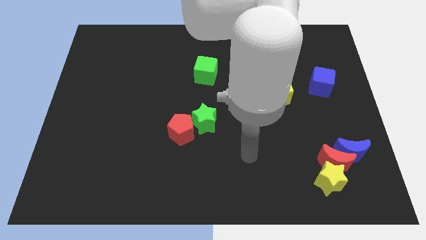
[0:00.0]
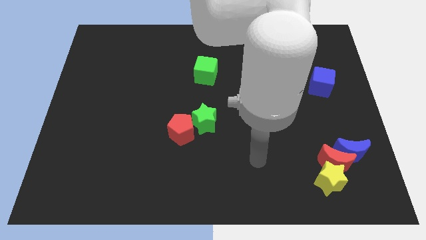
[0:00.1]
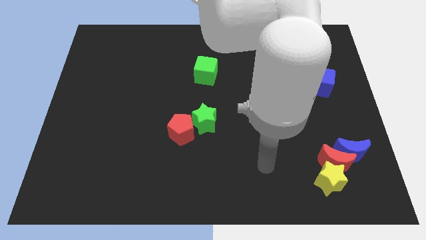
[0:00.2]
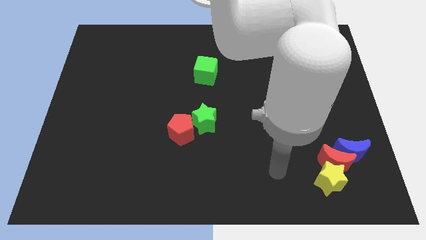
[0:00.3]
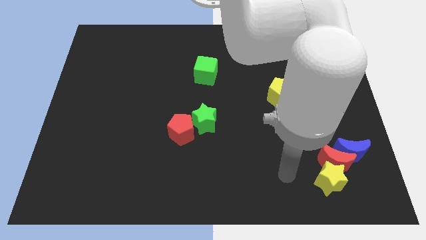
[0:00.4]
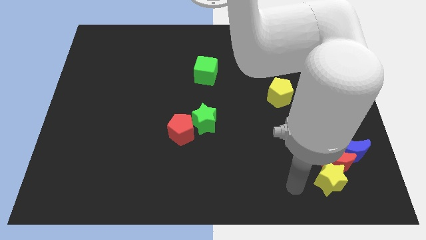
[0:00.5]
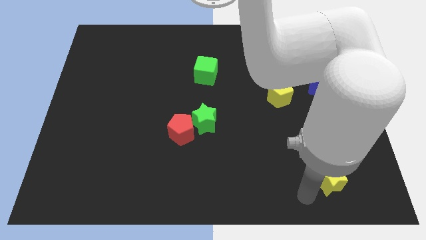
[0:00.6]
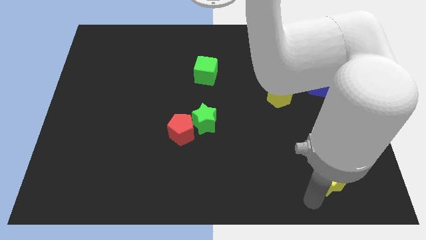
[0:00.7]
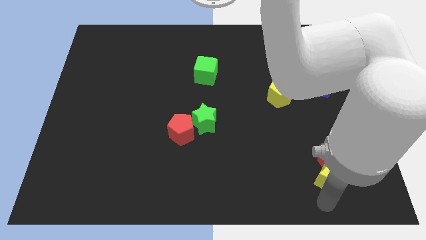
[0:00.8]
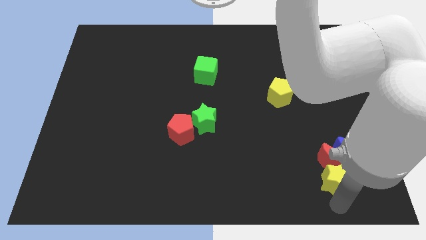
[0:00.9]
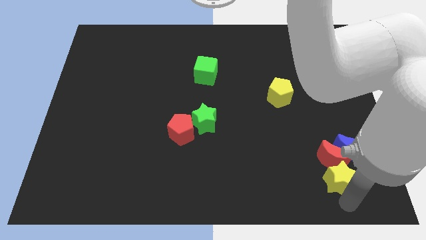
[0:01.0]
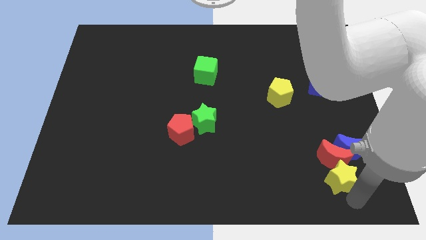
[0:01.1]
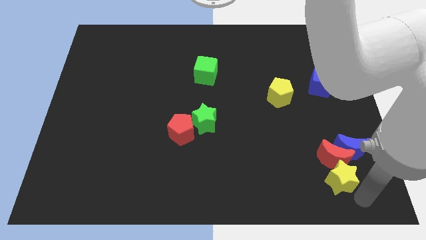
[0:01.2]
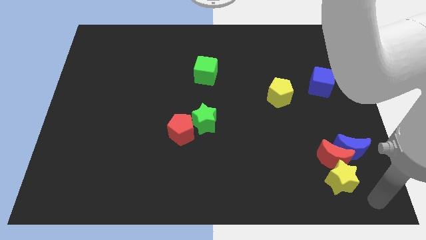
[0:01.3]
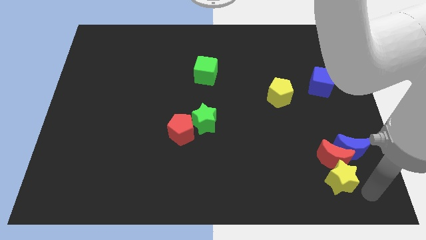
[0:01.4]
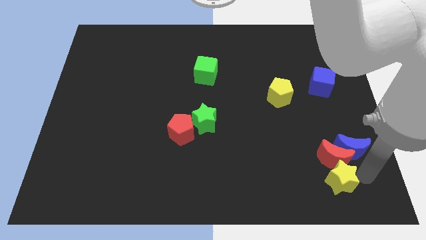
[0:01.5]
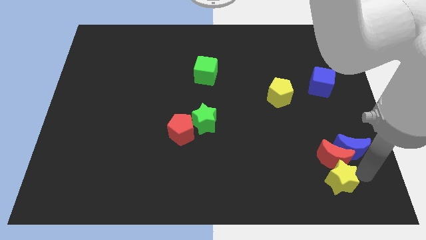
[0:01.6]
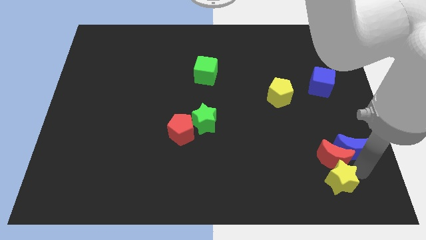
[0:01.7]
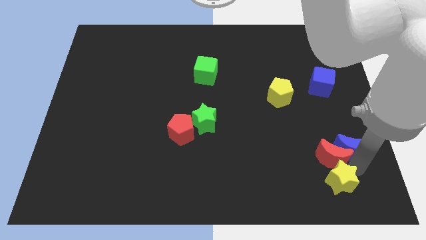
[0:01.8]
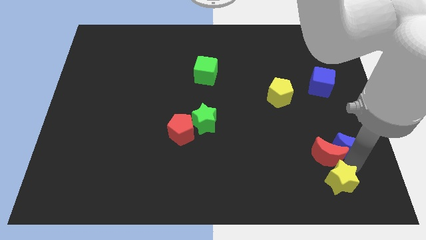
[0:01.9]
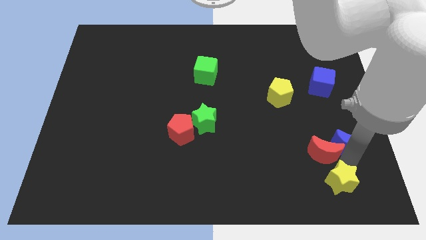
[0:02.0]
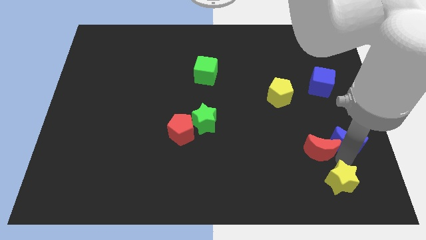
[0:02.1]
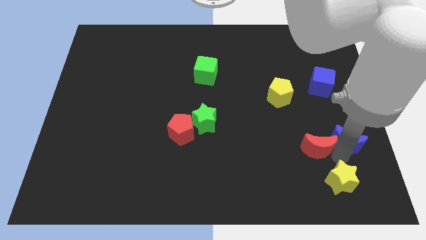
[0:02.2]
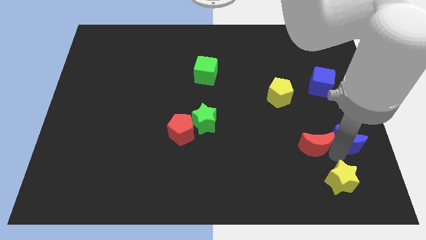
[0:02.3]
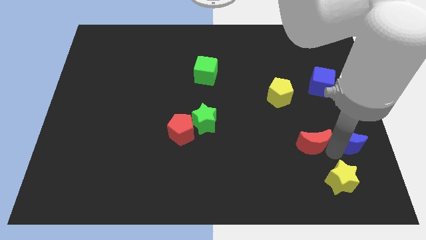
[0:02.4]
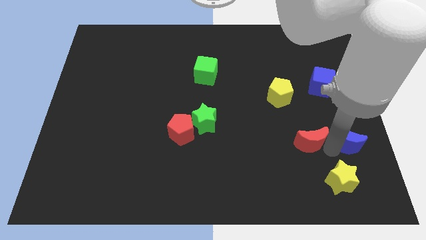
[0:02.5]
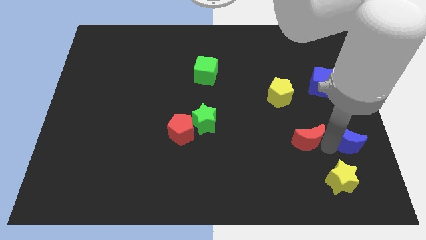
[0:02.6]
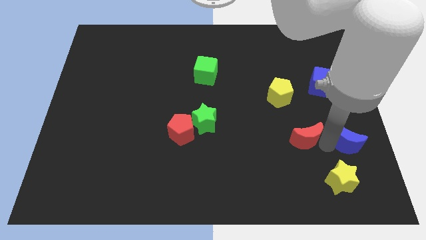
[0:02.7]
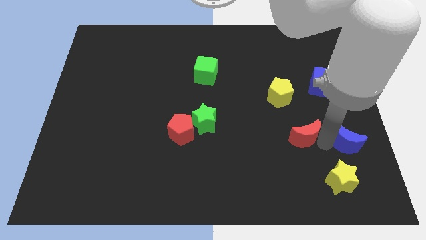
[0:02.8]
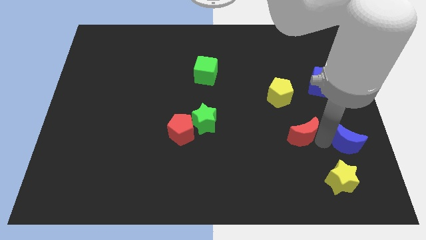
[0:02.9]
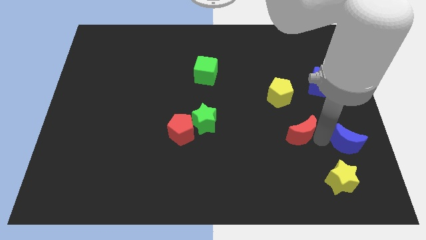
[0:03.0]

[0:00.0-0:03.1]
separate the red moon from the yellow star and blue moon

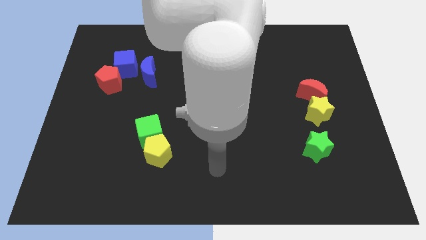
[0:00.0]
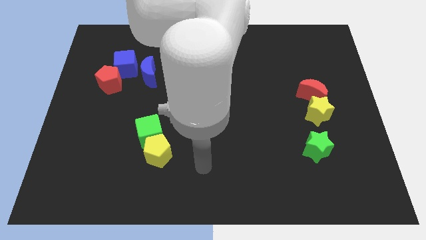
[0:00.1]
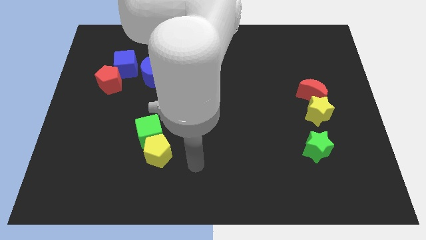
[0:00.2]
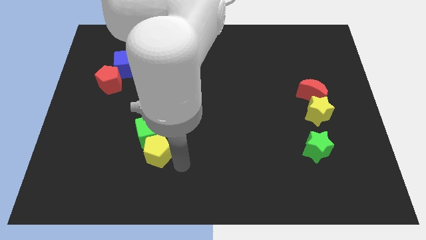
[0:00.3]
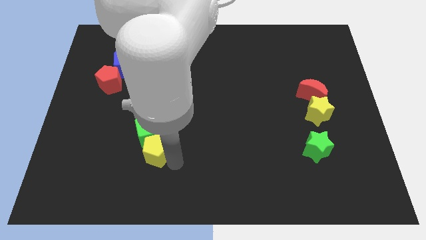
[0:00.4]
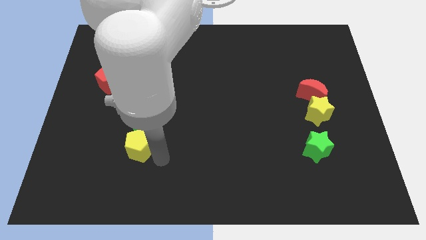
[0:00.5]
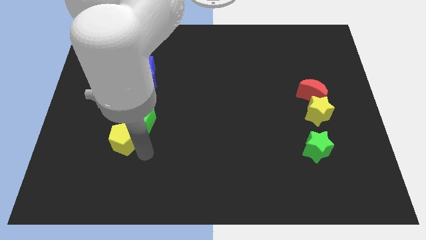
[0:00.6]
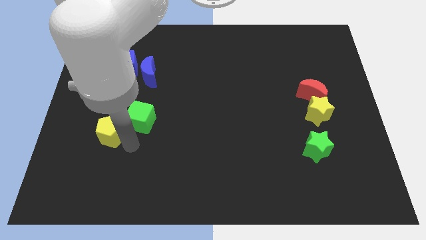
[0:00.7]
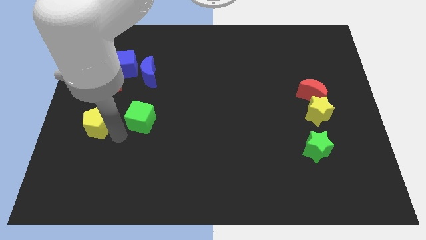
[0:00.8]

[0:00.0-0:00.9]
separate the green cube from the yellow pentagon

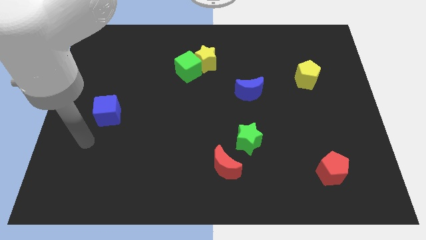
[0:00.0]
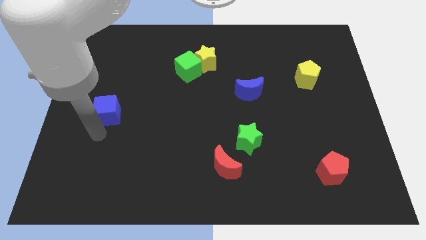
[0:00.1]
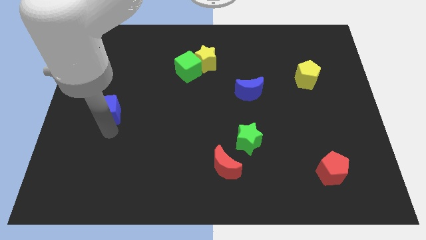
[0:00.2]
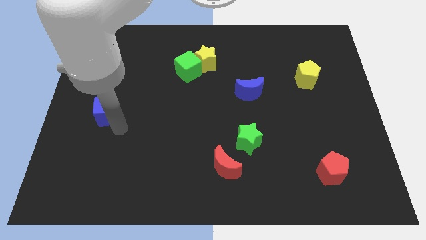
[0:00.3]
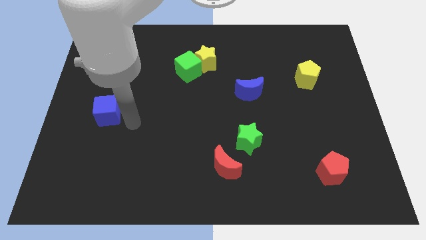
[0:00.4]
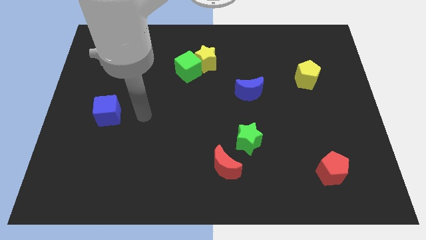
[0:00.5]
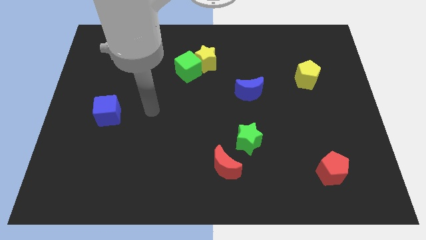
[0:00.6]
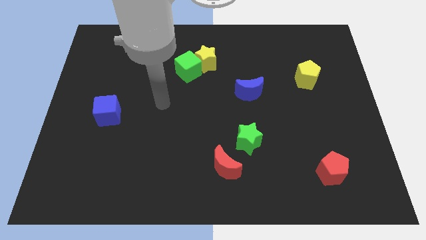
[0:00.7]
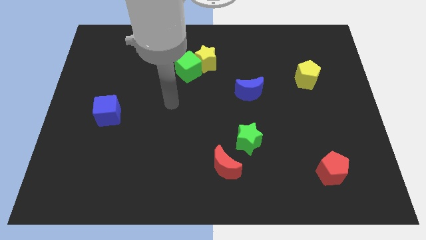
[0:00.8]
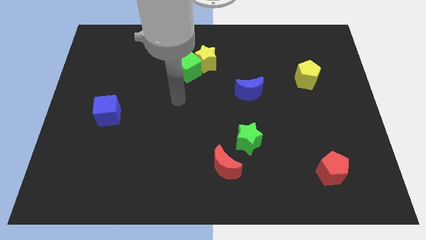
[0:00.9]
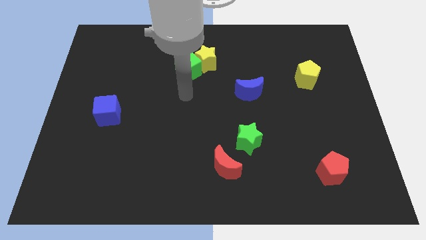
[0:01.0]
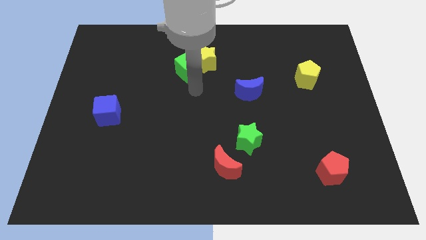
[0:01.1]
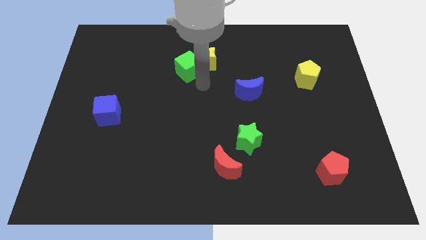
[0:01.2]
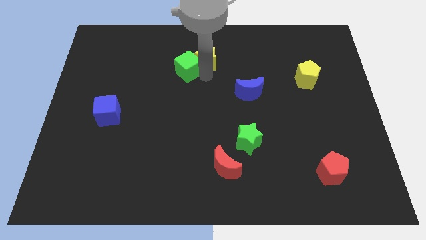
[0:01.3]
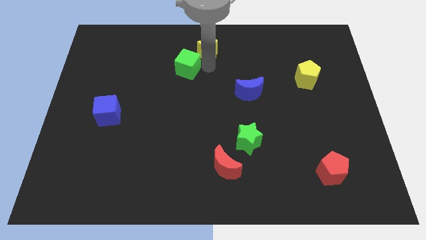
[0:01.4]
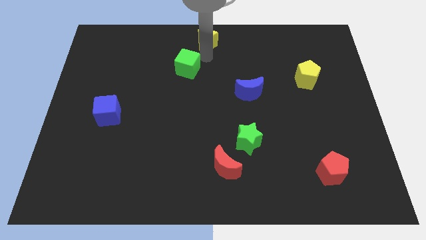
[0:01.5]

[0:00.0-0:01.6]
move the green cube away from the yellow star

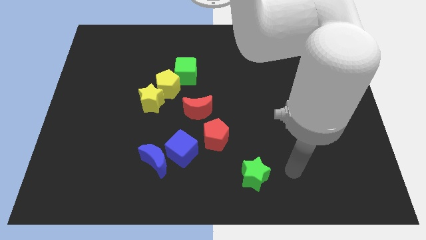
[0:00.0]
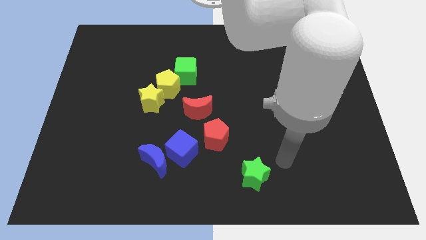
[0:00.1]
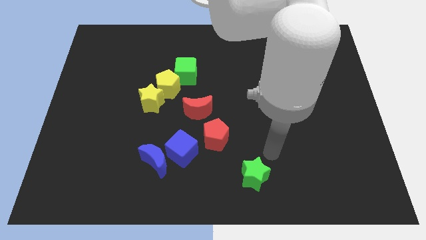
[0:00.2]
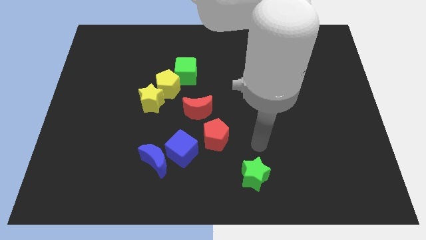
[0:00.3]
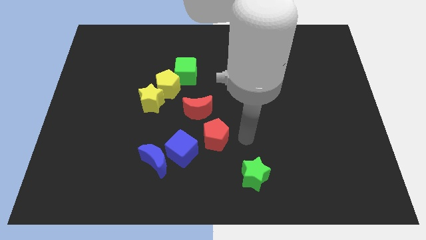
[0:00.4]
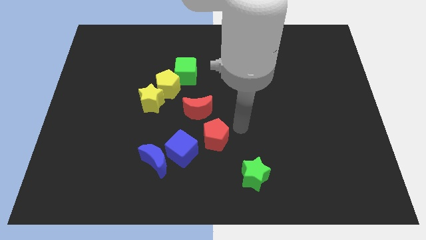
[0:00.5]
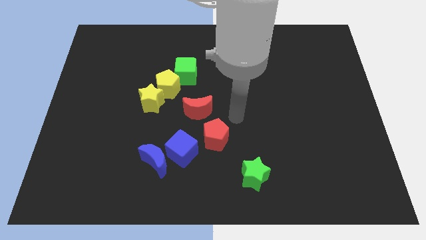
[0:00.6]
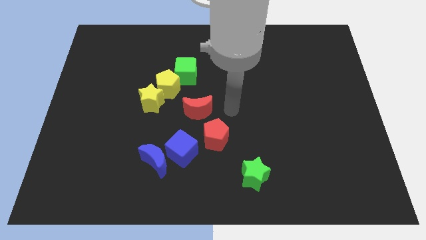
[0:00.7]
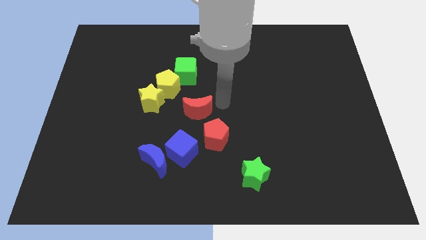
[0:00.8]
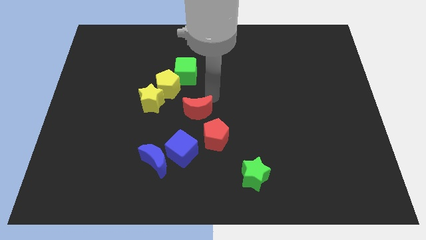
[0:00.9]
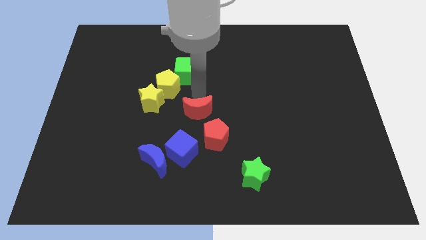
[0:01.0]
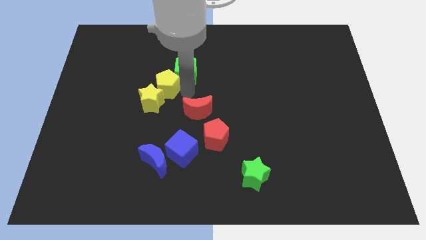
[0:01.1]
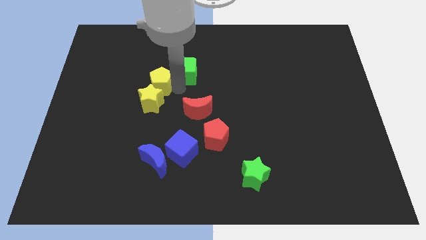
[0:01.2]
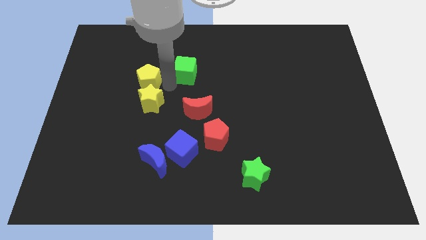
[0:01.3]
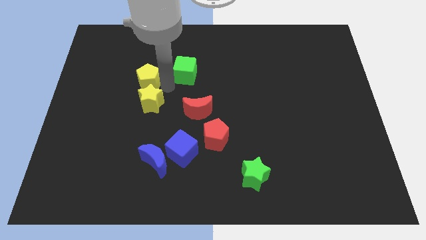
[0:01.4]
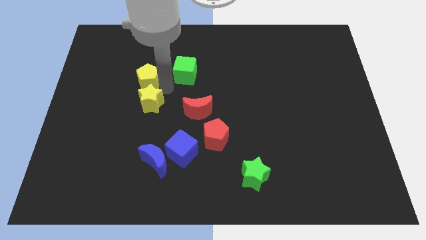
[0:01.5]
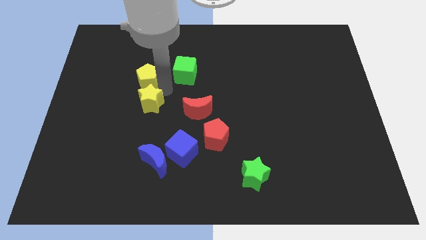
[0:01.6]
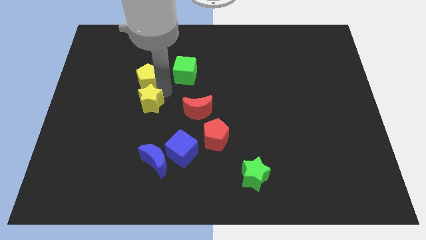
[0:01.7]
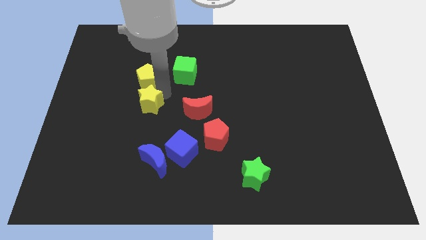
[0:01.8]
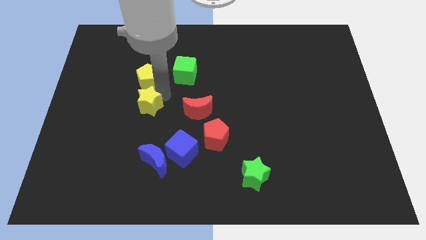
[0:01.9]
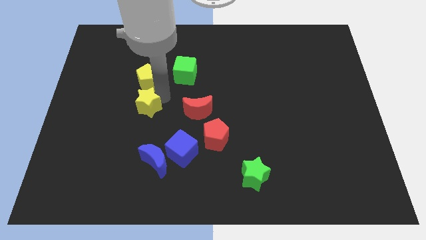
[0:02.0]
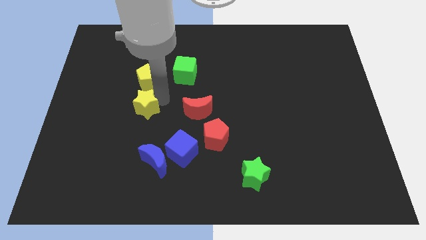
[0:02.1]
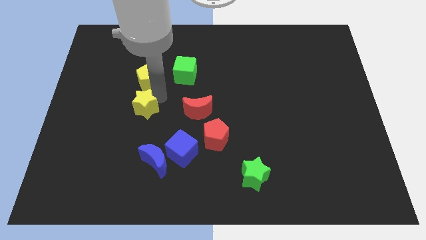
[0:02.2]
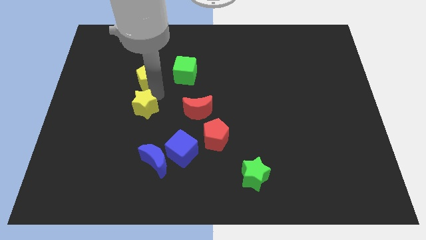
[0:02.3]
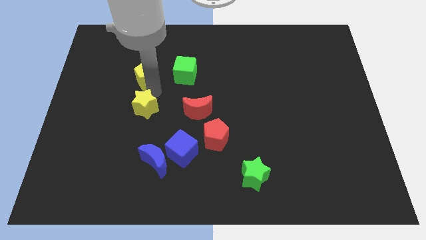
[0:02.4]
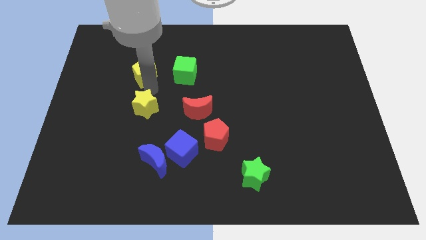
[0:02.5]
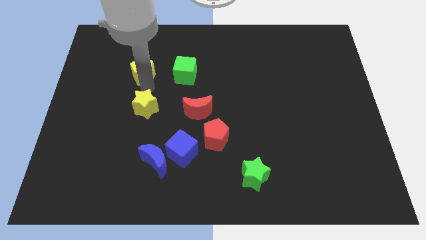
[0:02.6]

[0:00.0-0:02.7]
move the yellow star away from the yellow pentagon

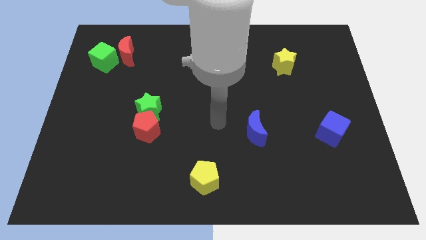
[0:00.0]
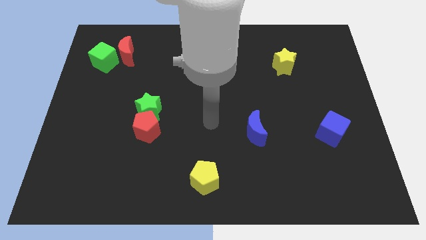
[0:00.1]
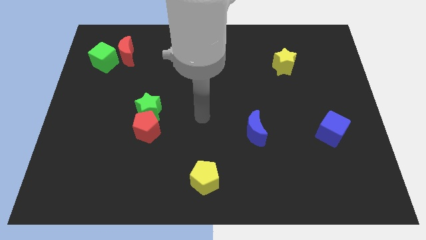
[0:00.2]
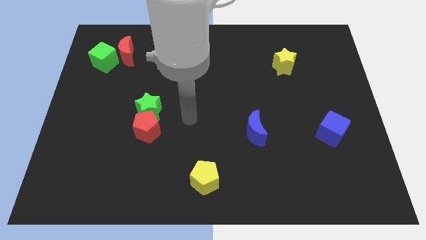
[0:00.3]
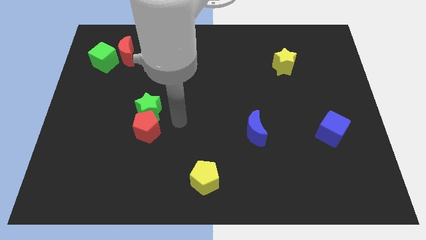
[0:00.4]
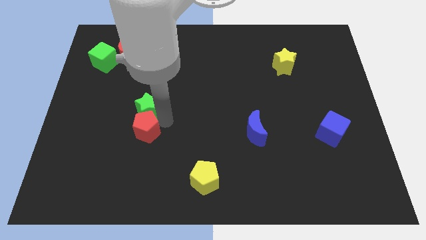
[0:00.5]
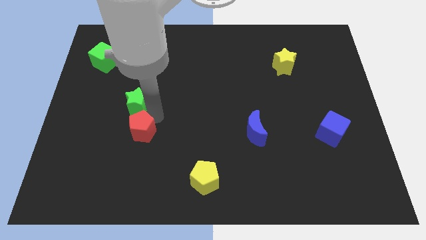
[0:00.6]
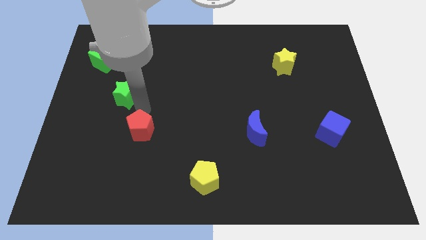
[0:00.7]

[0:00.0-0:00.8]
separate the red pentagon from the green star
